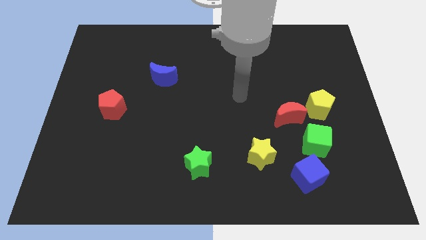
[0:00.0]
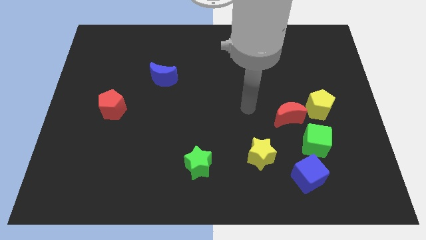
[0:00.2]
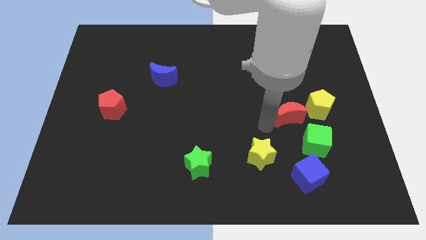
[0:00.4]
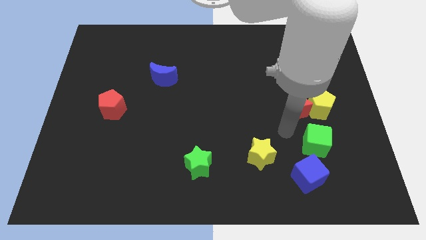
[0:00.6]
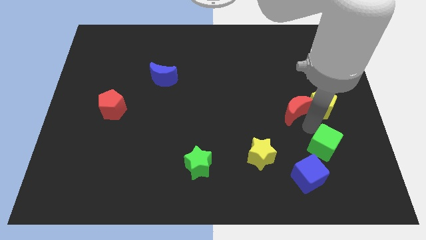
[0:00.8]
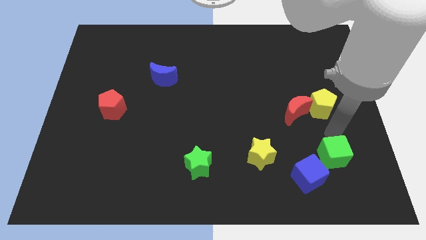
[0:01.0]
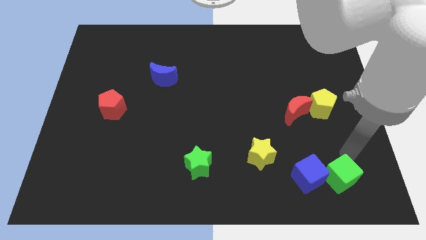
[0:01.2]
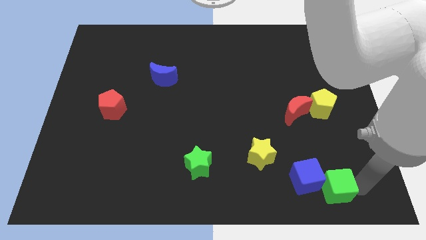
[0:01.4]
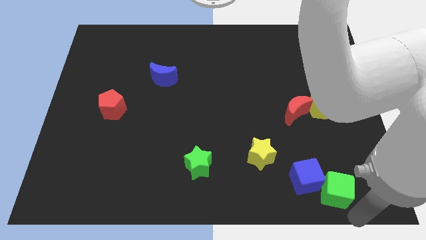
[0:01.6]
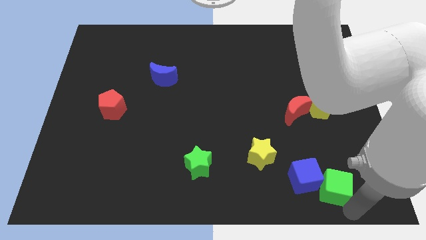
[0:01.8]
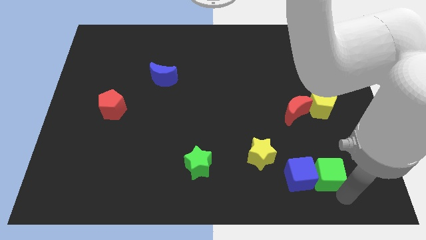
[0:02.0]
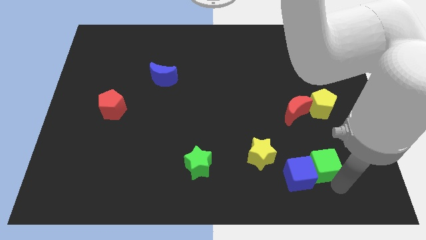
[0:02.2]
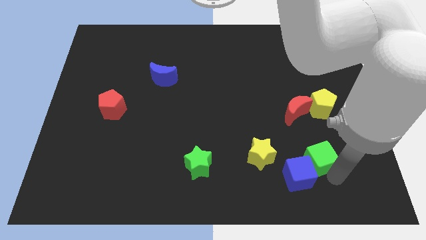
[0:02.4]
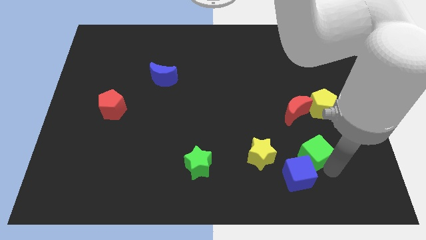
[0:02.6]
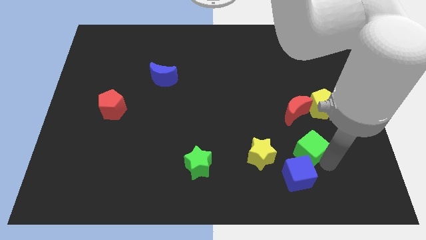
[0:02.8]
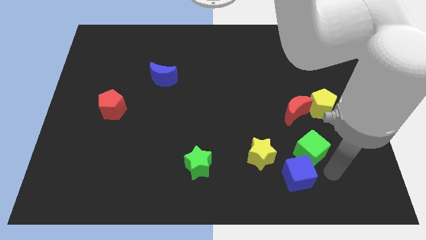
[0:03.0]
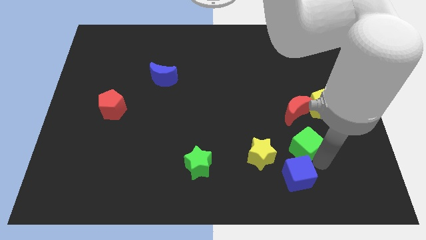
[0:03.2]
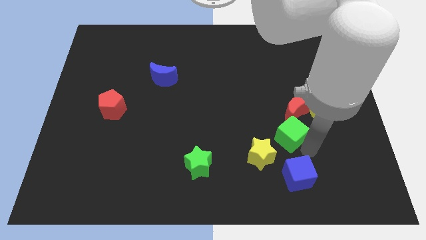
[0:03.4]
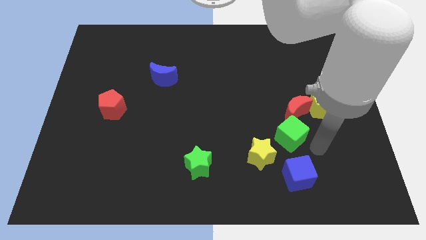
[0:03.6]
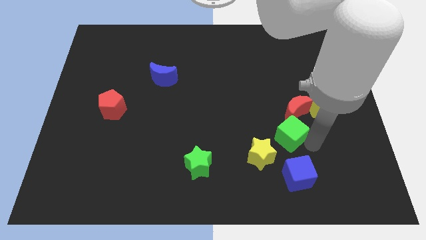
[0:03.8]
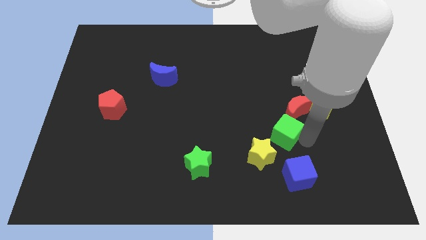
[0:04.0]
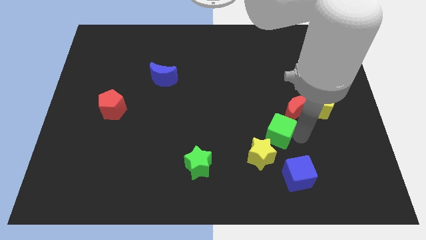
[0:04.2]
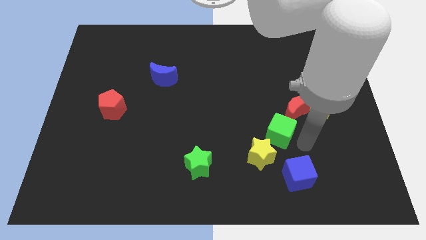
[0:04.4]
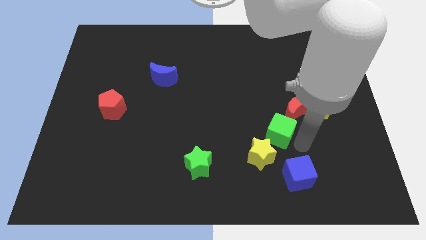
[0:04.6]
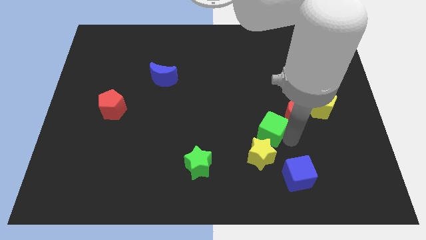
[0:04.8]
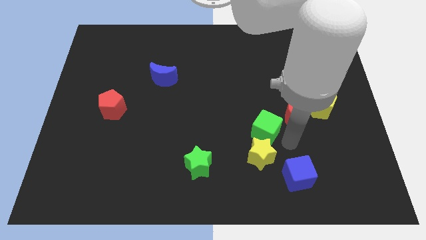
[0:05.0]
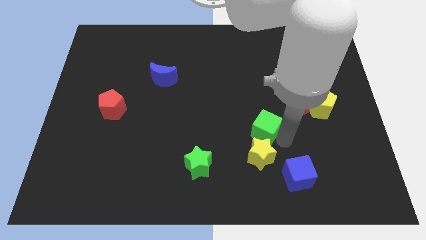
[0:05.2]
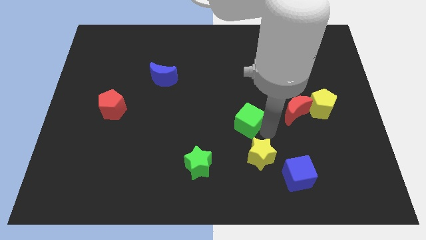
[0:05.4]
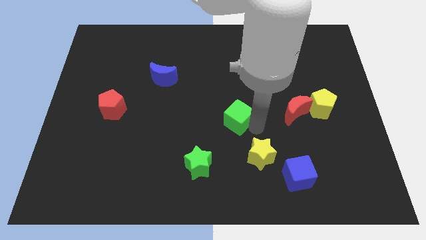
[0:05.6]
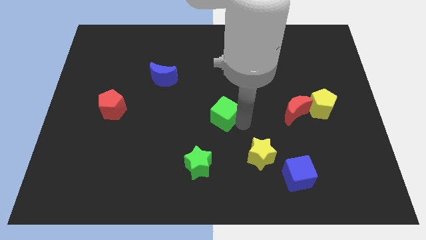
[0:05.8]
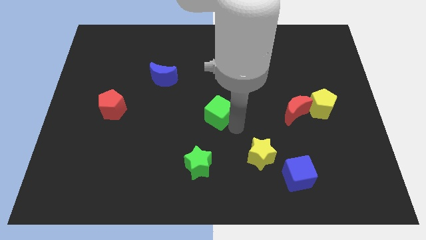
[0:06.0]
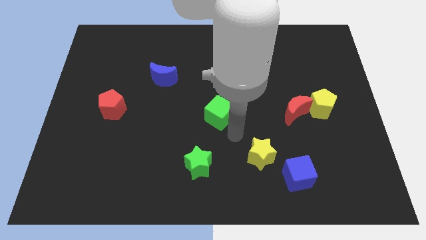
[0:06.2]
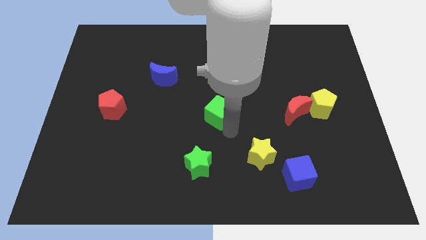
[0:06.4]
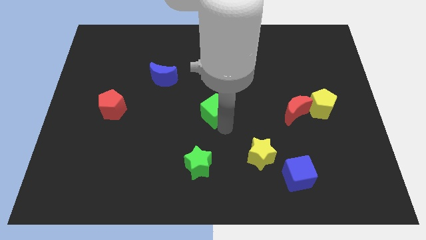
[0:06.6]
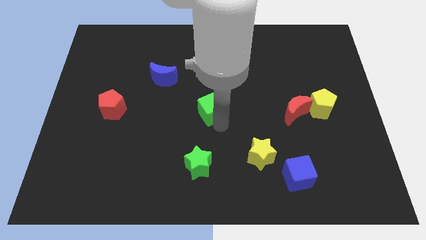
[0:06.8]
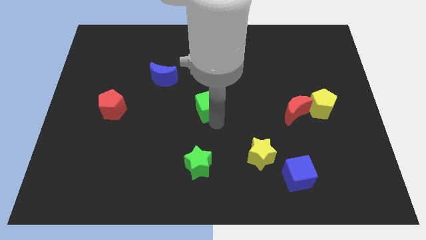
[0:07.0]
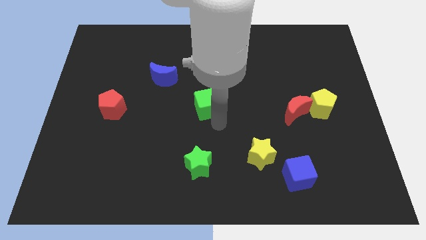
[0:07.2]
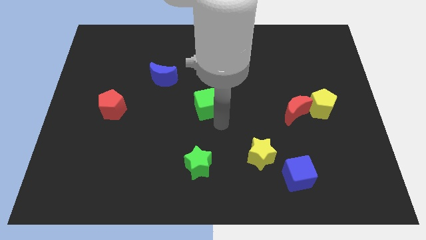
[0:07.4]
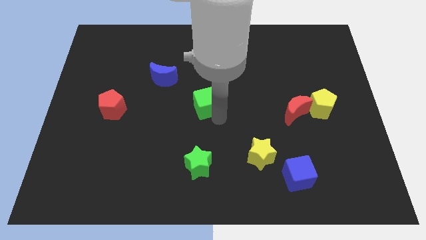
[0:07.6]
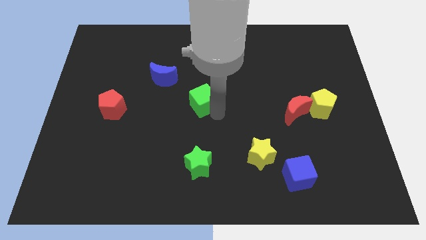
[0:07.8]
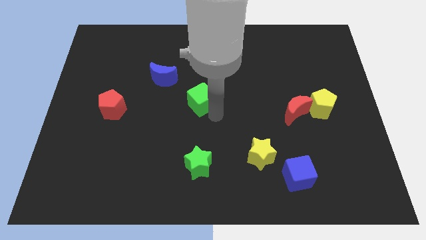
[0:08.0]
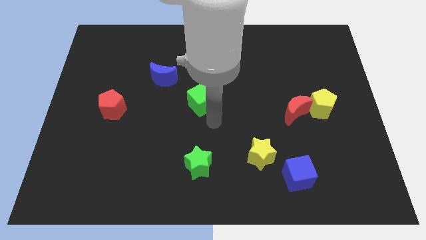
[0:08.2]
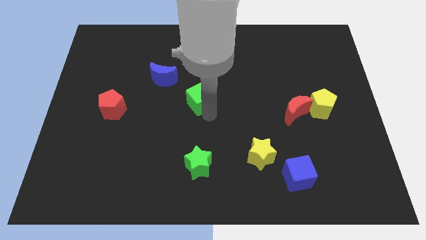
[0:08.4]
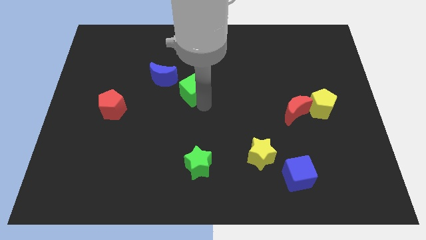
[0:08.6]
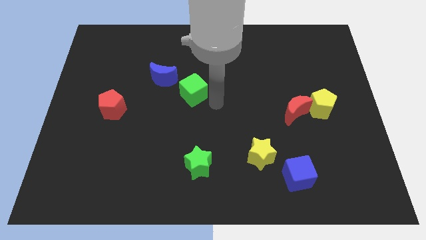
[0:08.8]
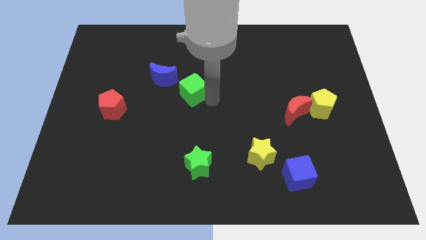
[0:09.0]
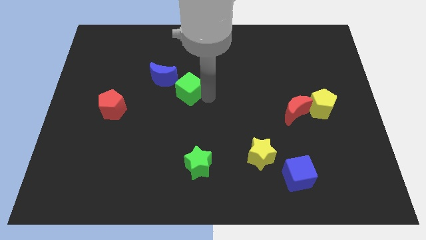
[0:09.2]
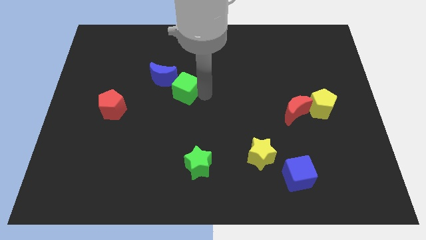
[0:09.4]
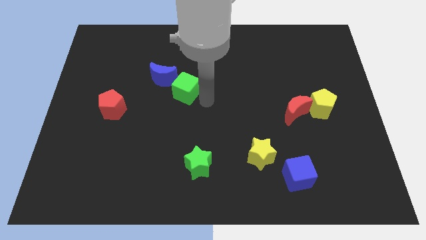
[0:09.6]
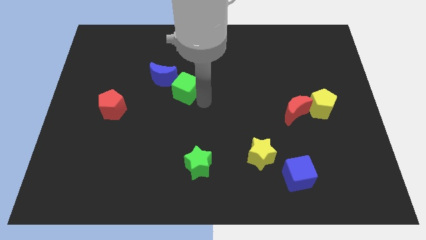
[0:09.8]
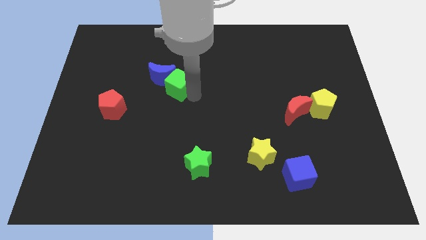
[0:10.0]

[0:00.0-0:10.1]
put the green cube close to the blue moon

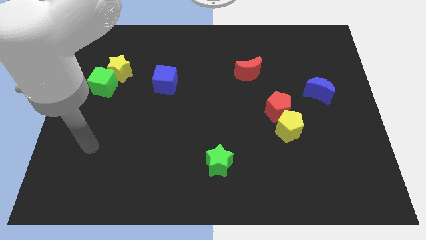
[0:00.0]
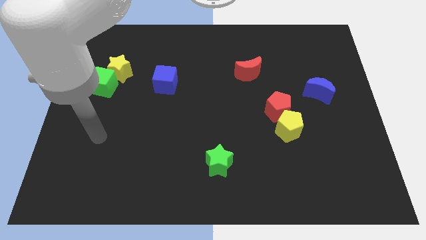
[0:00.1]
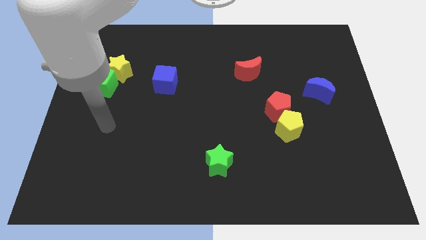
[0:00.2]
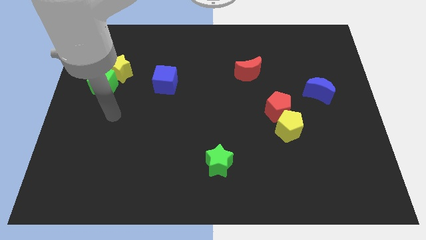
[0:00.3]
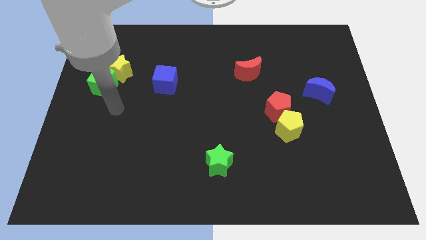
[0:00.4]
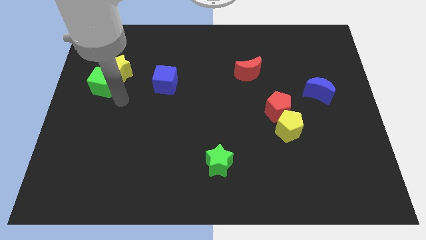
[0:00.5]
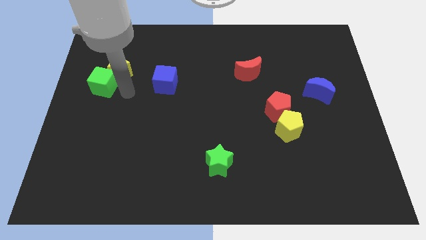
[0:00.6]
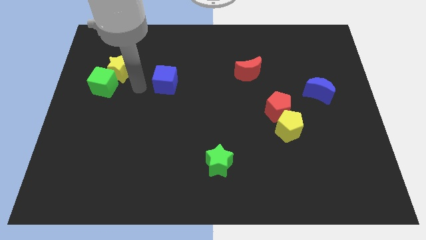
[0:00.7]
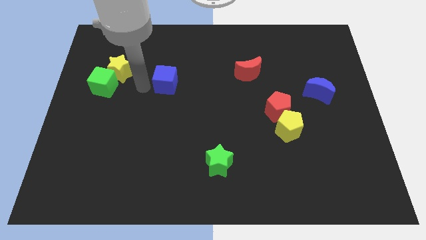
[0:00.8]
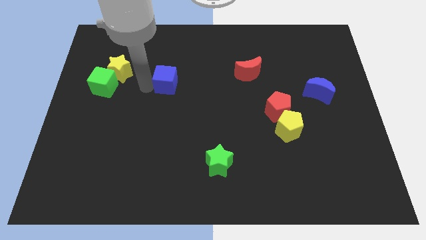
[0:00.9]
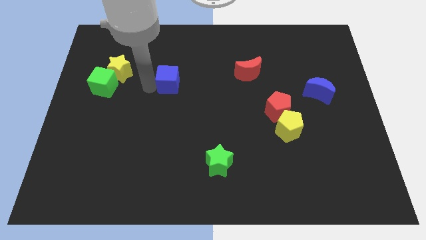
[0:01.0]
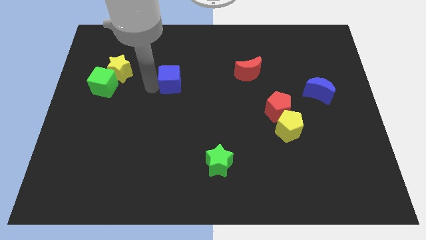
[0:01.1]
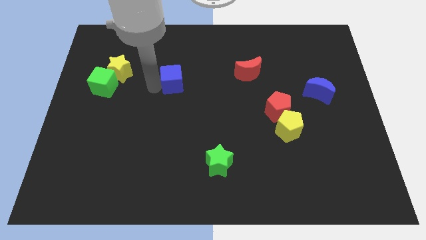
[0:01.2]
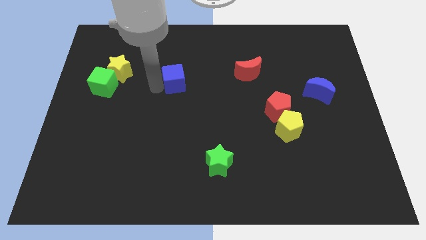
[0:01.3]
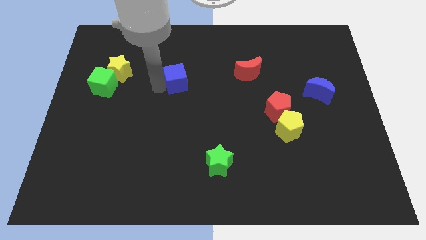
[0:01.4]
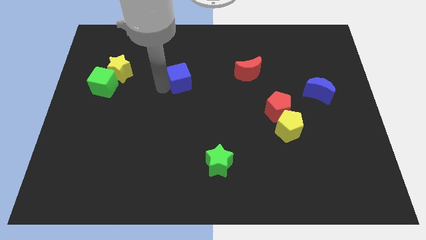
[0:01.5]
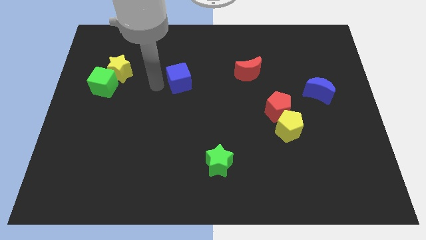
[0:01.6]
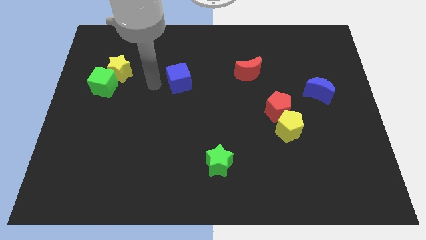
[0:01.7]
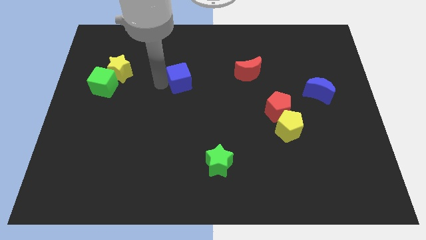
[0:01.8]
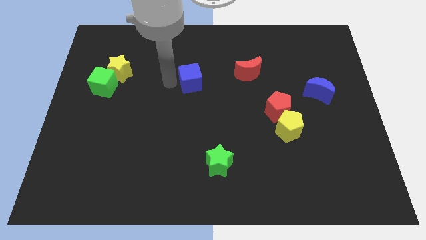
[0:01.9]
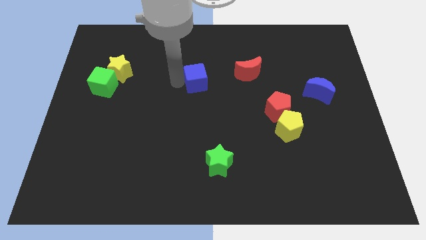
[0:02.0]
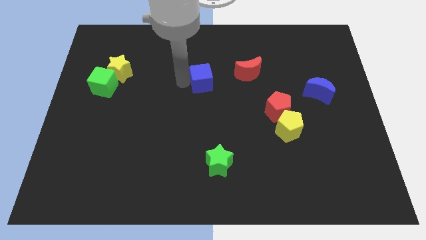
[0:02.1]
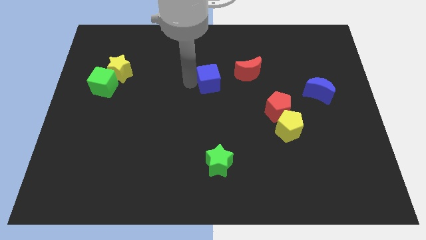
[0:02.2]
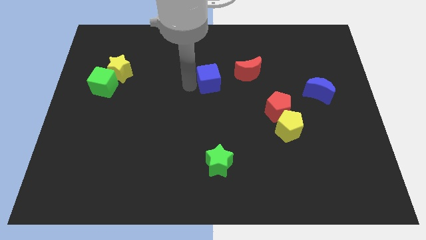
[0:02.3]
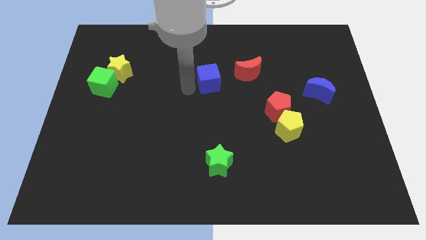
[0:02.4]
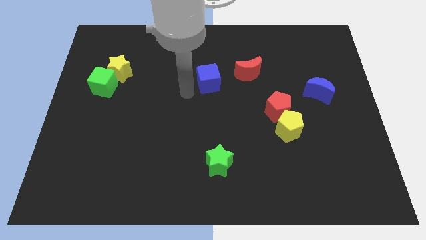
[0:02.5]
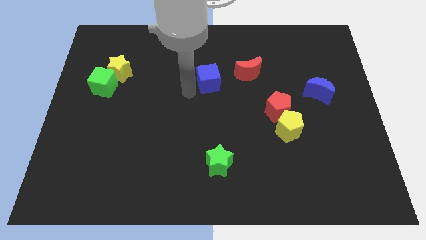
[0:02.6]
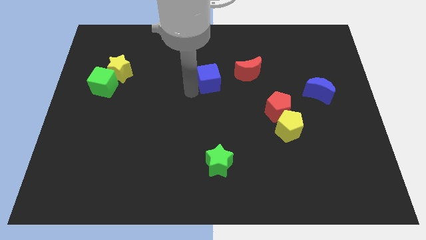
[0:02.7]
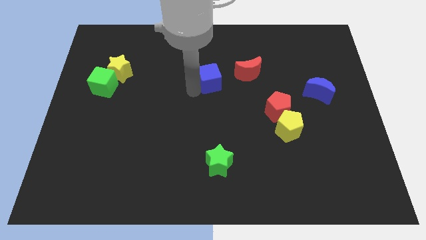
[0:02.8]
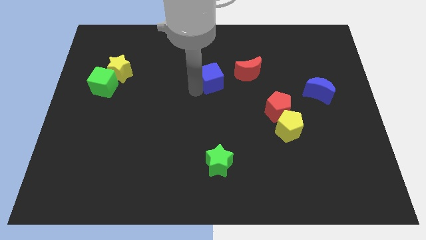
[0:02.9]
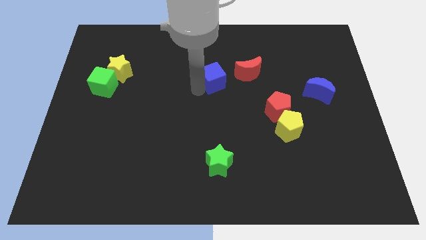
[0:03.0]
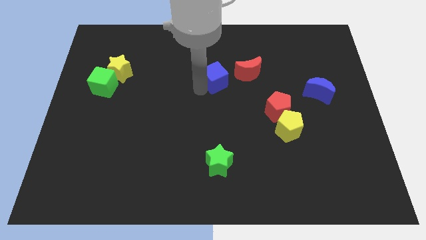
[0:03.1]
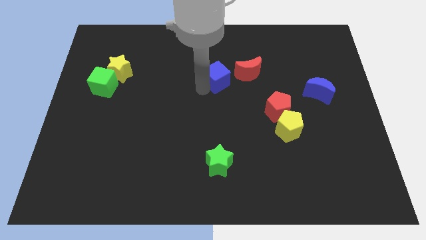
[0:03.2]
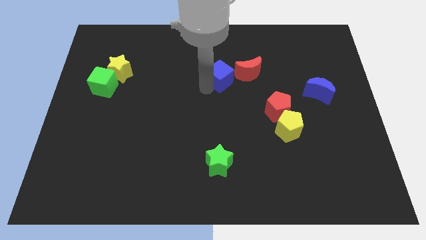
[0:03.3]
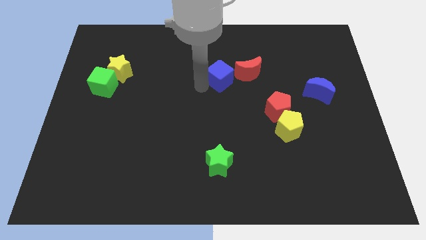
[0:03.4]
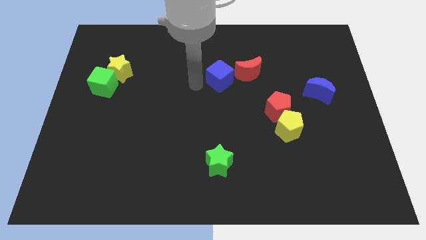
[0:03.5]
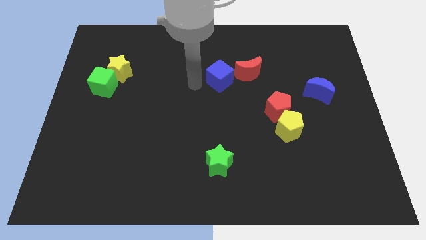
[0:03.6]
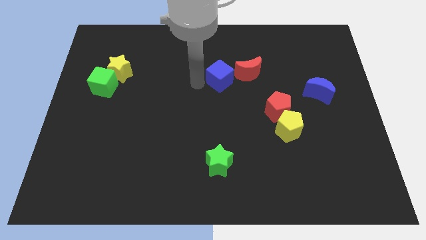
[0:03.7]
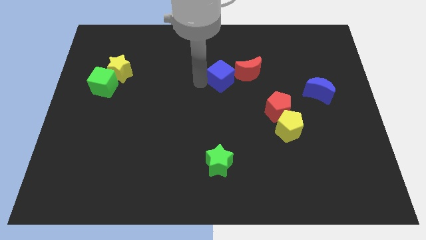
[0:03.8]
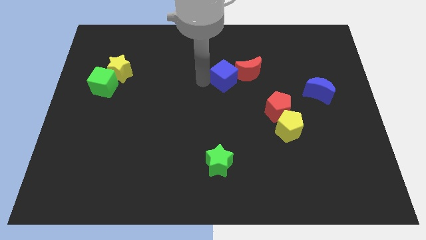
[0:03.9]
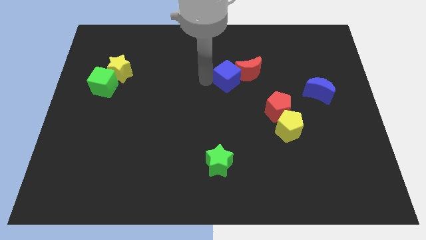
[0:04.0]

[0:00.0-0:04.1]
move the blue cube to the red moon
